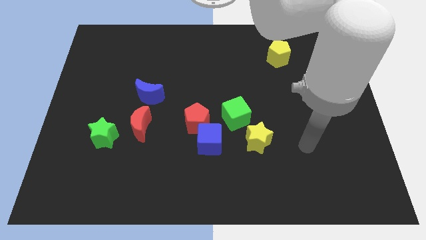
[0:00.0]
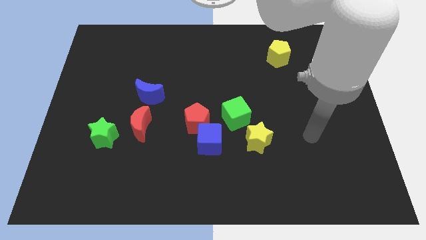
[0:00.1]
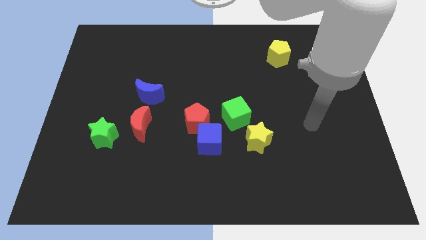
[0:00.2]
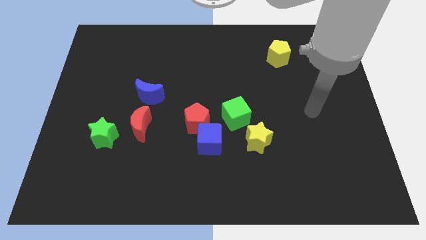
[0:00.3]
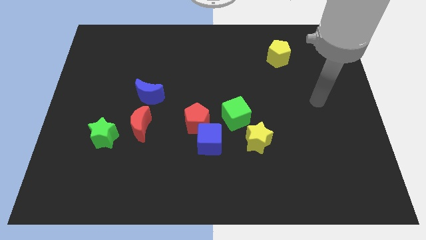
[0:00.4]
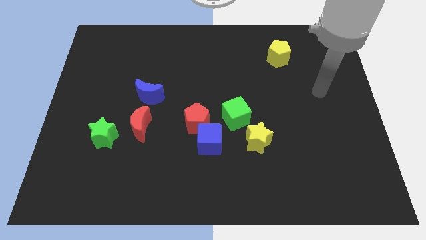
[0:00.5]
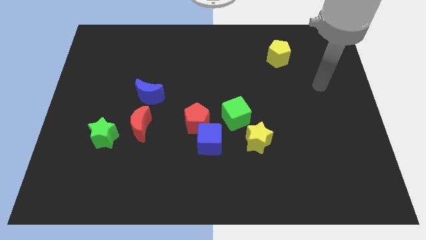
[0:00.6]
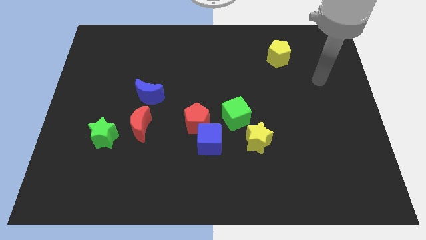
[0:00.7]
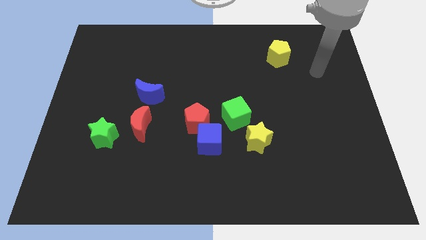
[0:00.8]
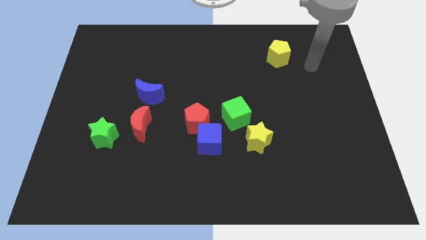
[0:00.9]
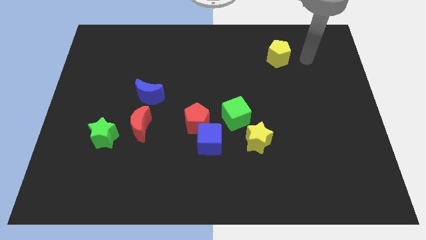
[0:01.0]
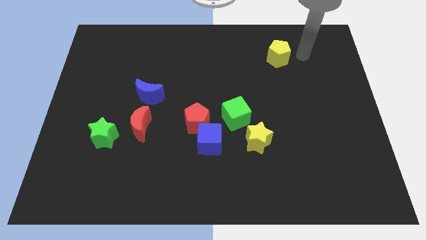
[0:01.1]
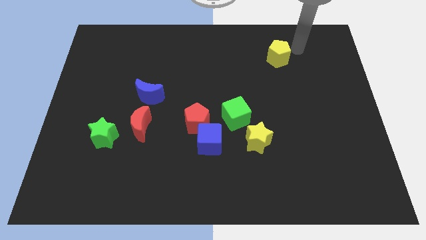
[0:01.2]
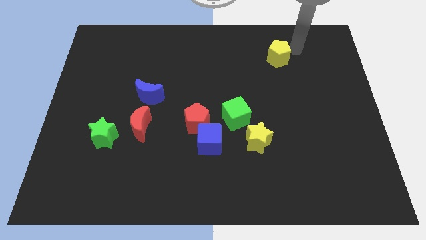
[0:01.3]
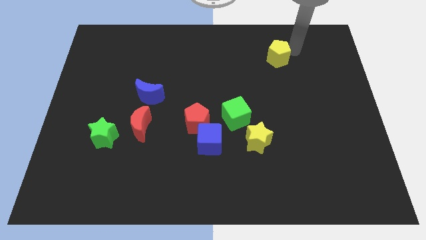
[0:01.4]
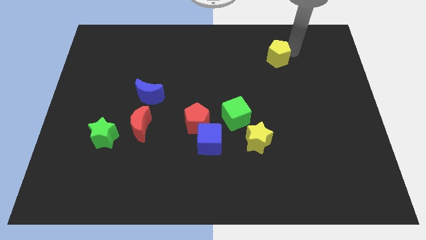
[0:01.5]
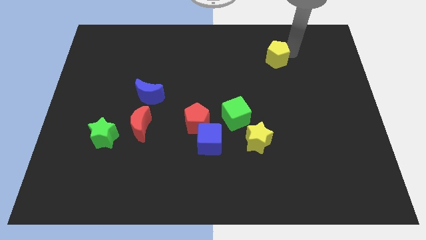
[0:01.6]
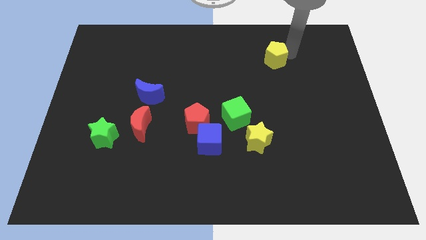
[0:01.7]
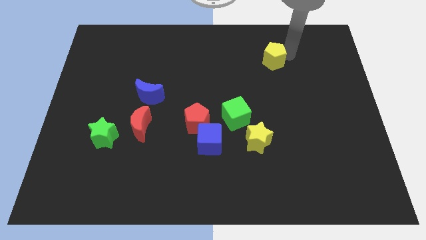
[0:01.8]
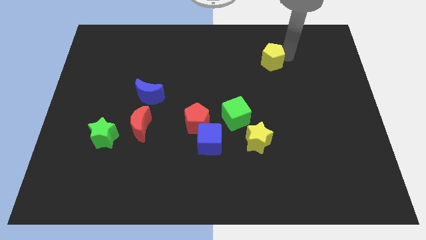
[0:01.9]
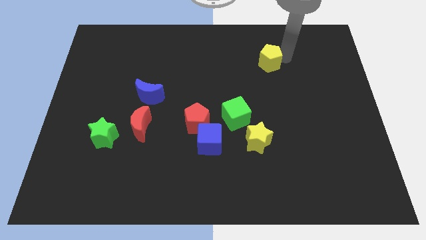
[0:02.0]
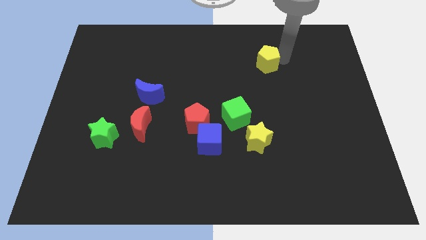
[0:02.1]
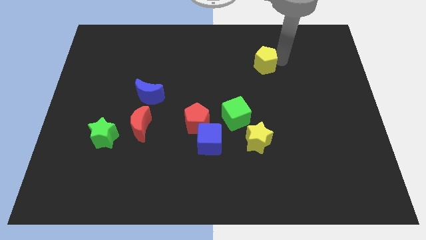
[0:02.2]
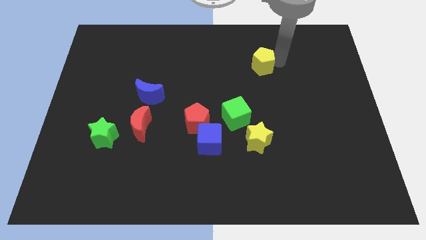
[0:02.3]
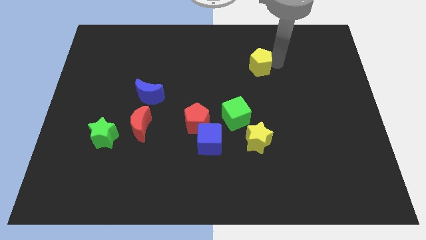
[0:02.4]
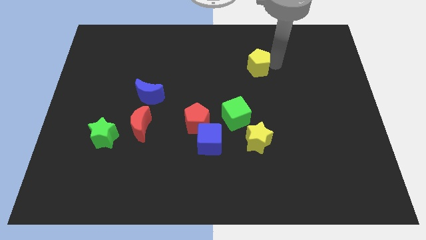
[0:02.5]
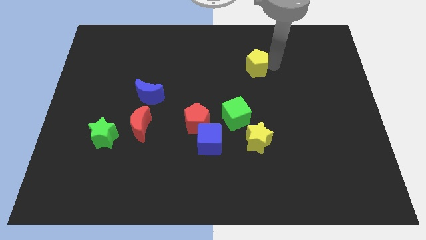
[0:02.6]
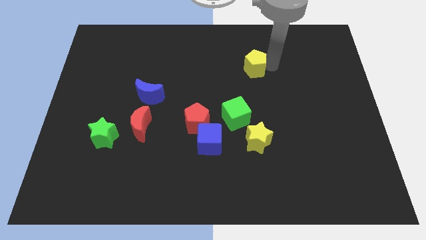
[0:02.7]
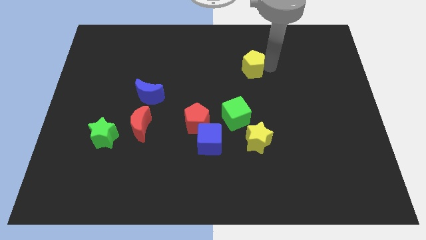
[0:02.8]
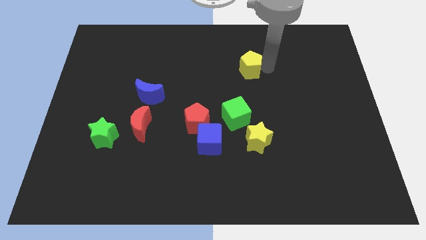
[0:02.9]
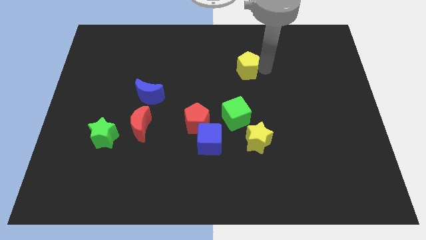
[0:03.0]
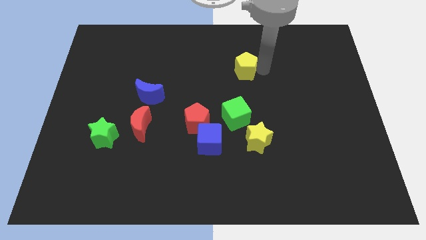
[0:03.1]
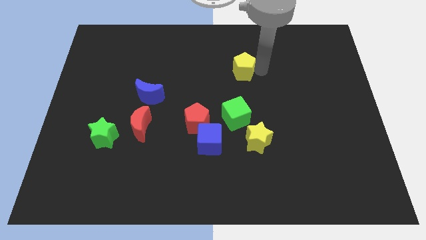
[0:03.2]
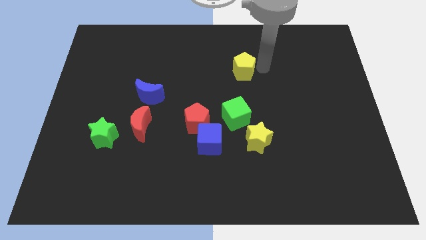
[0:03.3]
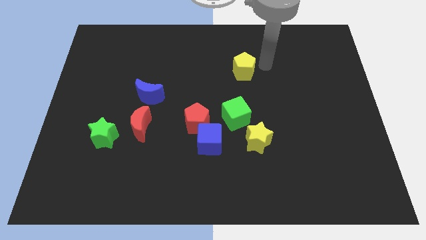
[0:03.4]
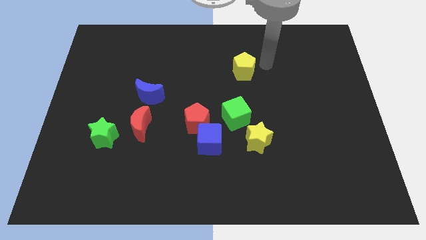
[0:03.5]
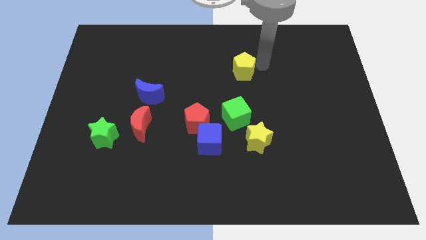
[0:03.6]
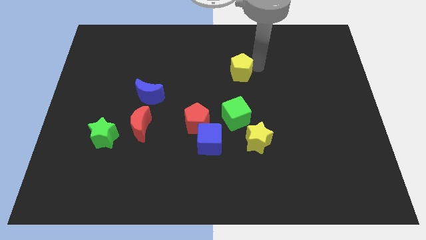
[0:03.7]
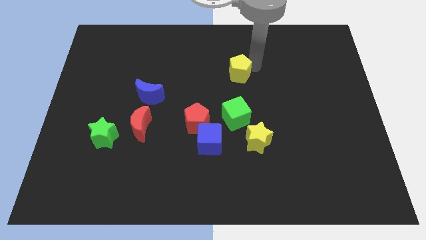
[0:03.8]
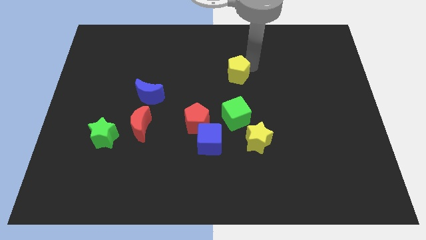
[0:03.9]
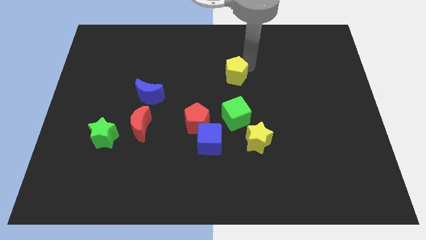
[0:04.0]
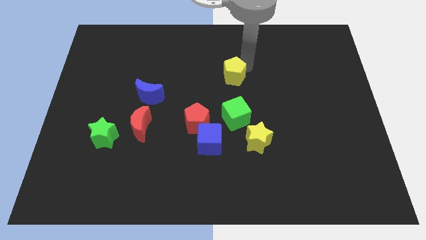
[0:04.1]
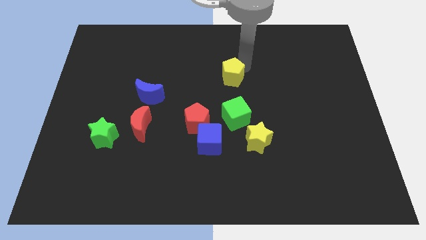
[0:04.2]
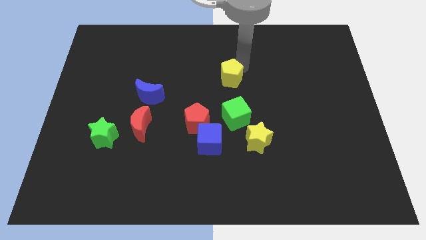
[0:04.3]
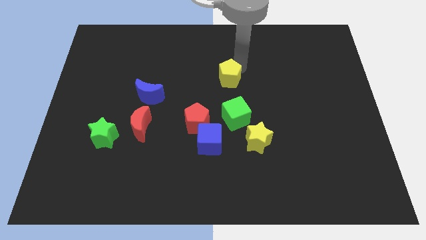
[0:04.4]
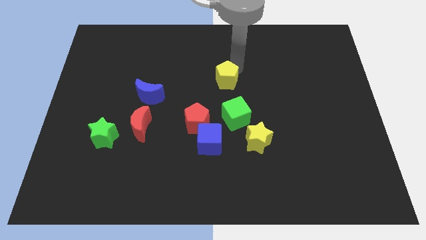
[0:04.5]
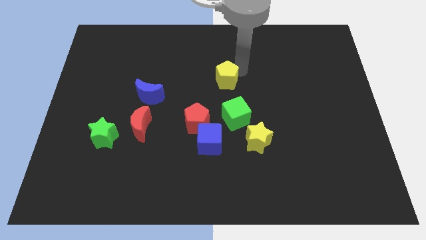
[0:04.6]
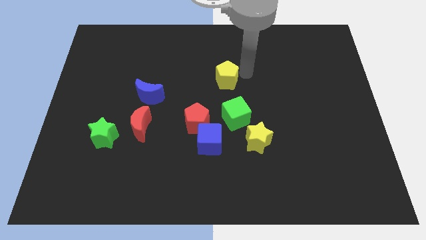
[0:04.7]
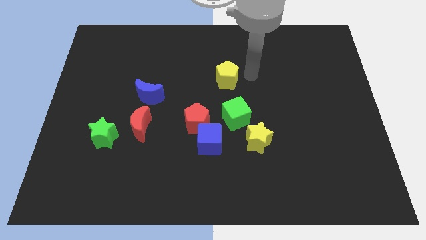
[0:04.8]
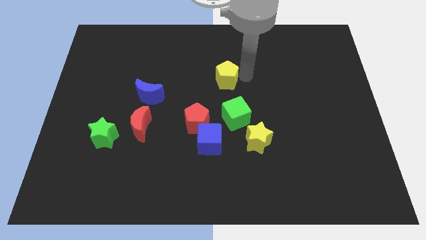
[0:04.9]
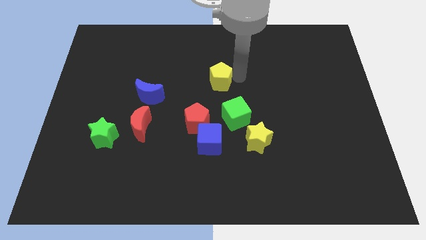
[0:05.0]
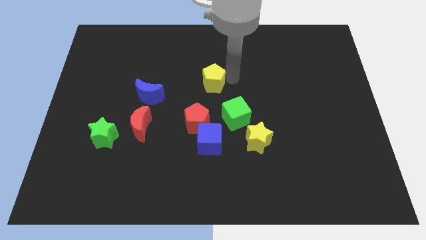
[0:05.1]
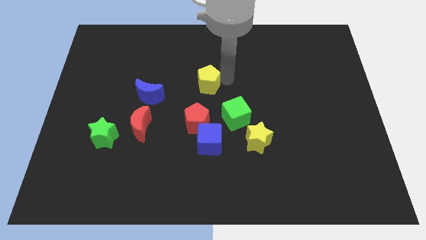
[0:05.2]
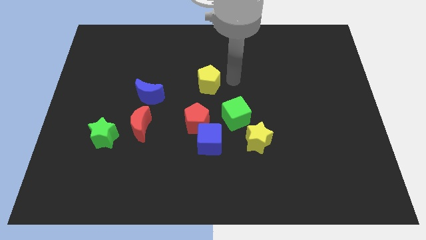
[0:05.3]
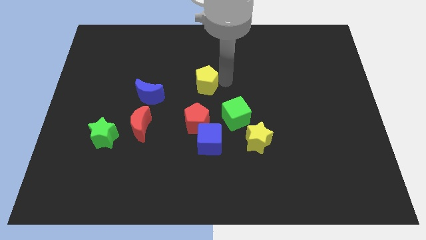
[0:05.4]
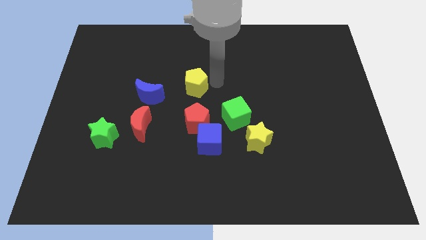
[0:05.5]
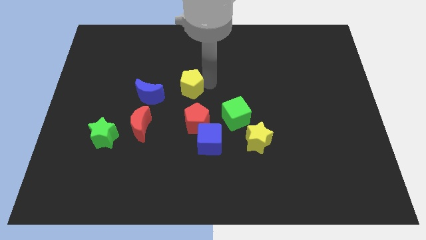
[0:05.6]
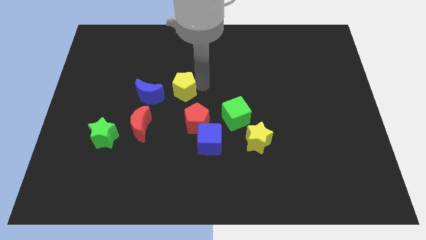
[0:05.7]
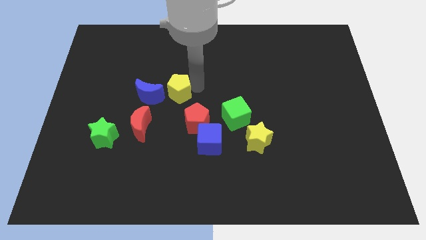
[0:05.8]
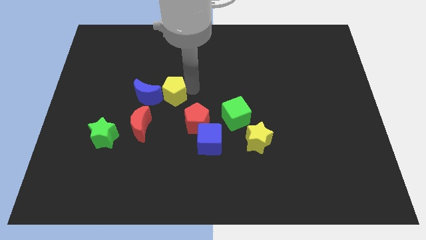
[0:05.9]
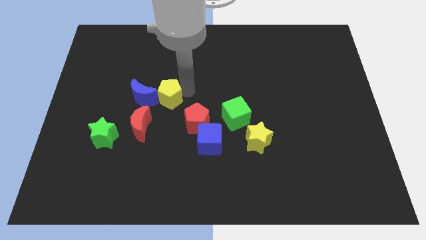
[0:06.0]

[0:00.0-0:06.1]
put the yellow pentagon close to the blue moon
